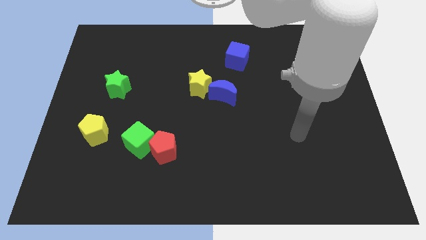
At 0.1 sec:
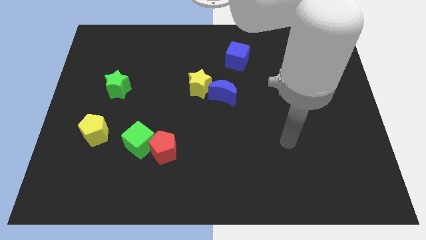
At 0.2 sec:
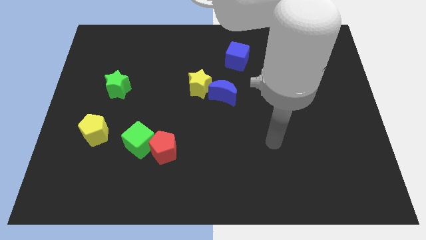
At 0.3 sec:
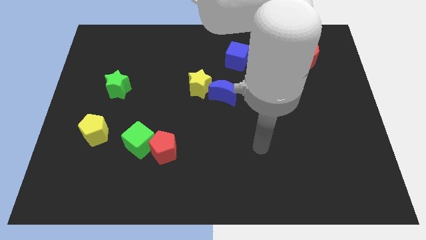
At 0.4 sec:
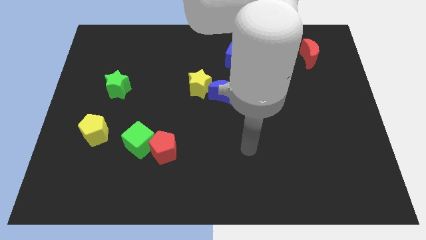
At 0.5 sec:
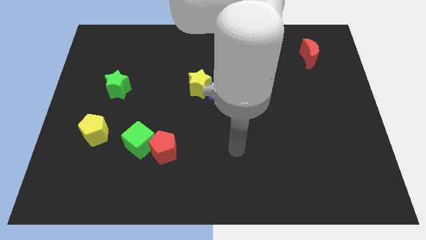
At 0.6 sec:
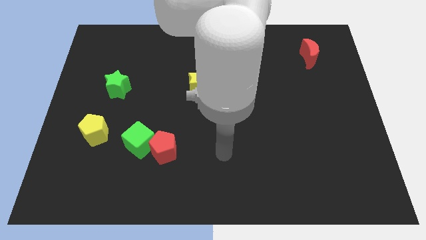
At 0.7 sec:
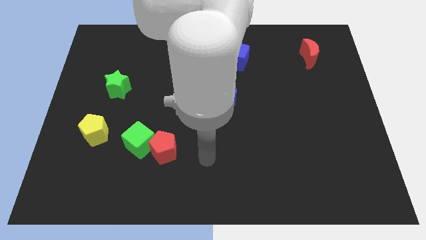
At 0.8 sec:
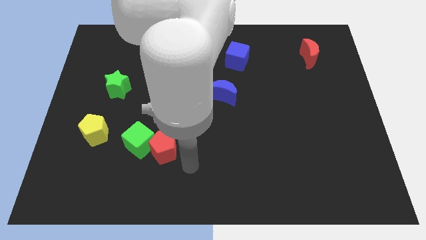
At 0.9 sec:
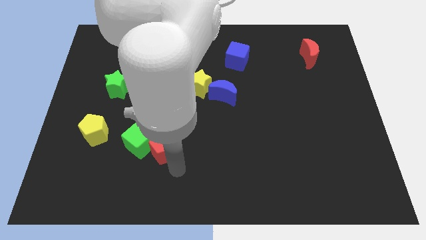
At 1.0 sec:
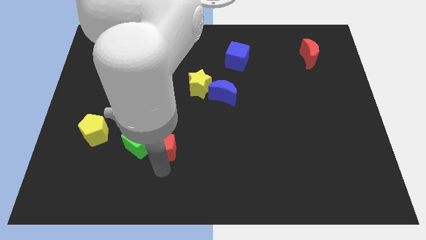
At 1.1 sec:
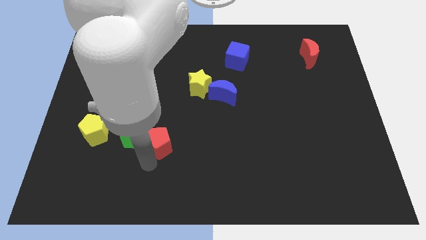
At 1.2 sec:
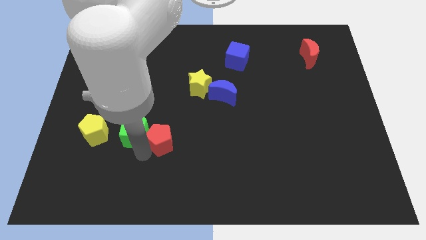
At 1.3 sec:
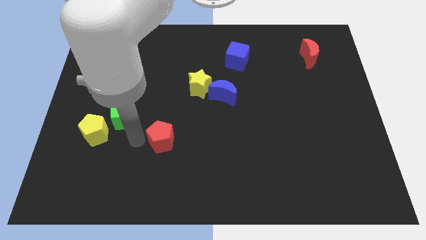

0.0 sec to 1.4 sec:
pull the red pentagon apart from the green cube

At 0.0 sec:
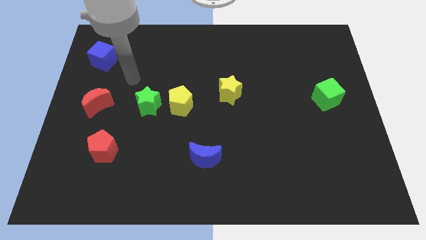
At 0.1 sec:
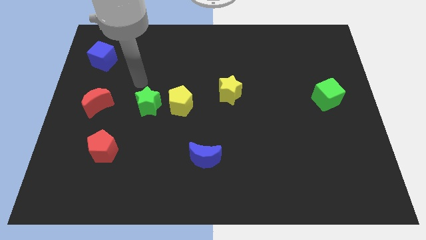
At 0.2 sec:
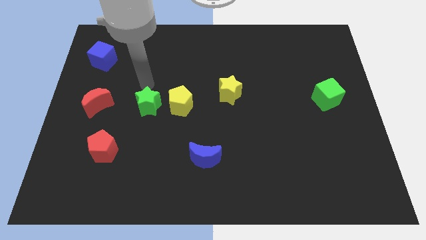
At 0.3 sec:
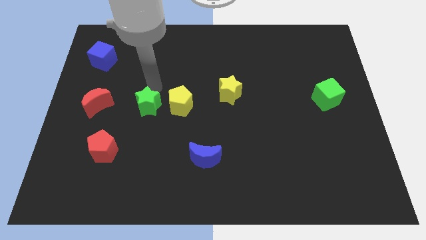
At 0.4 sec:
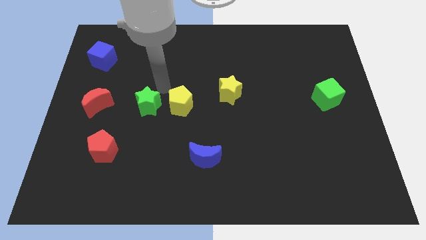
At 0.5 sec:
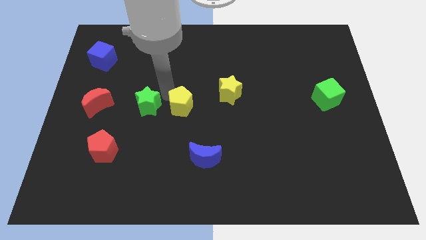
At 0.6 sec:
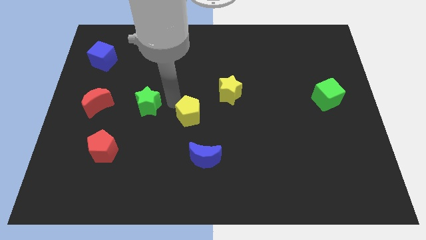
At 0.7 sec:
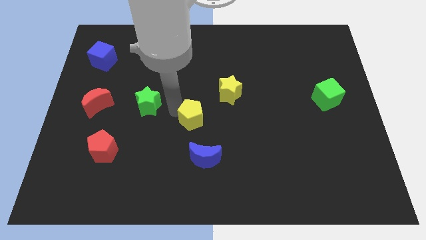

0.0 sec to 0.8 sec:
pull the green star apart from the yellow pentagon

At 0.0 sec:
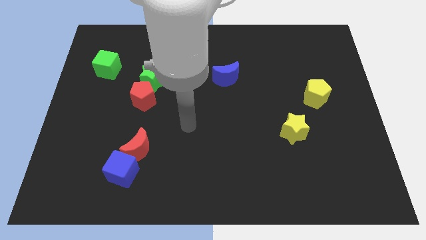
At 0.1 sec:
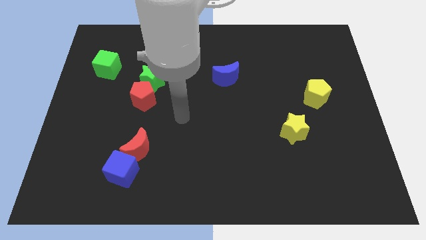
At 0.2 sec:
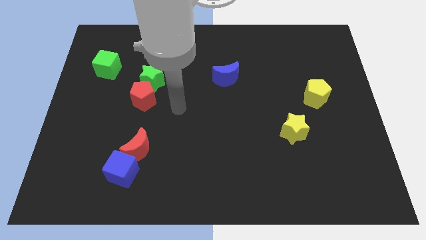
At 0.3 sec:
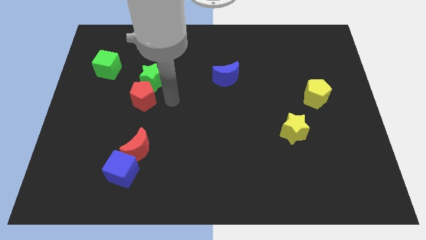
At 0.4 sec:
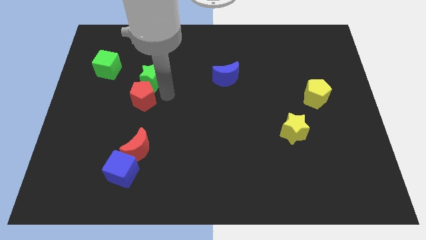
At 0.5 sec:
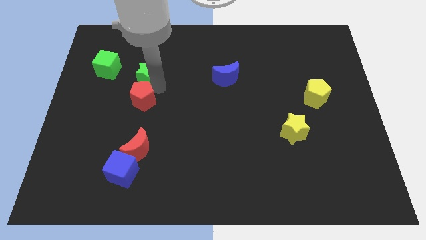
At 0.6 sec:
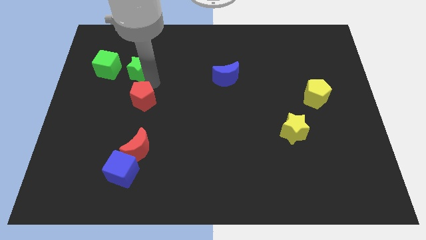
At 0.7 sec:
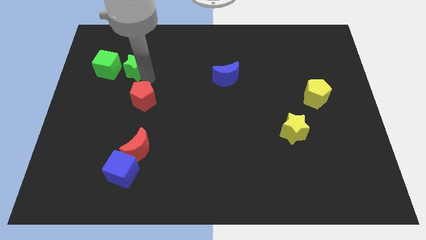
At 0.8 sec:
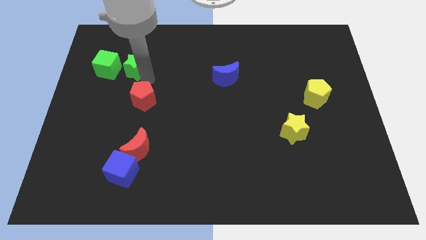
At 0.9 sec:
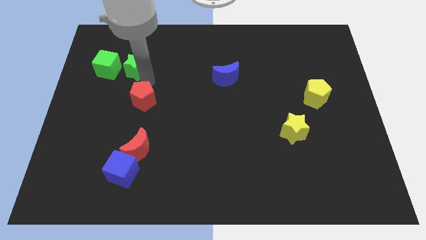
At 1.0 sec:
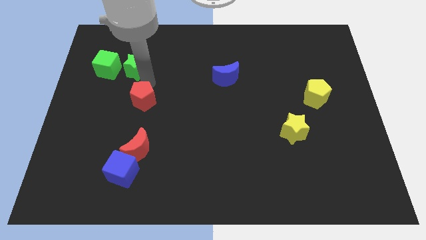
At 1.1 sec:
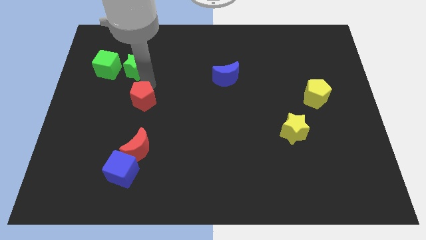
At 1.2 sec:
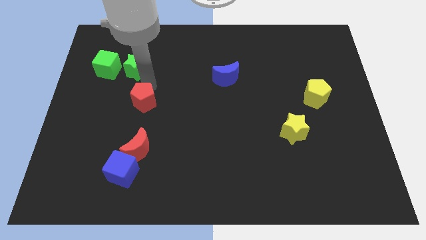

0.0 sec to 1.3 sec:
pull the red pentagon apart from the green star

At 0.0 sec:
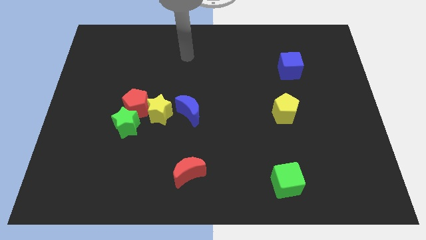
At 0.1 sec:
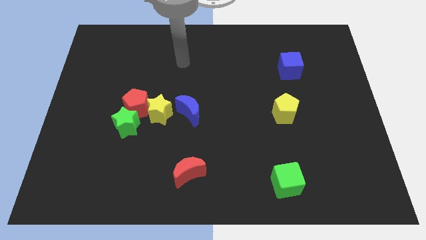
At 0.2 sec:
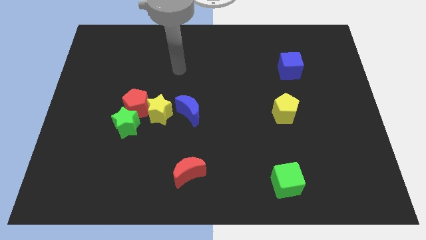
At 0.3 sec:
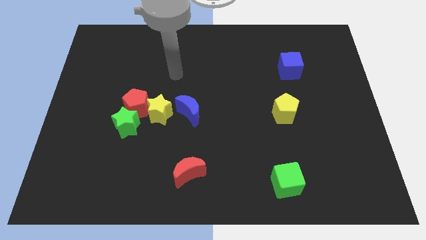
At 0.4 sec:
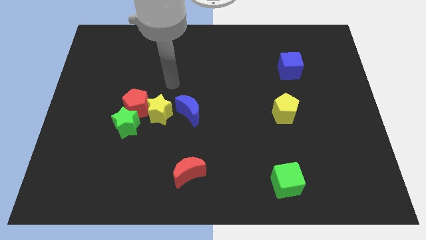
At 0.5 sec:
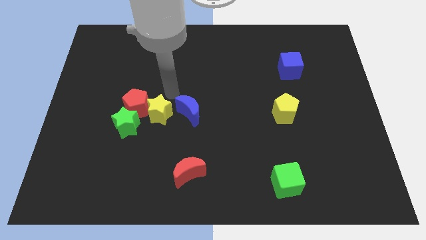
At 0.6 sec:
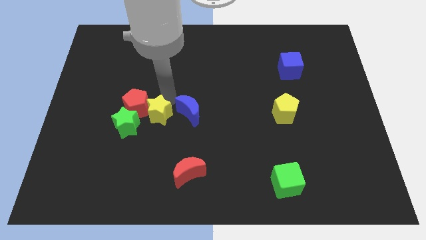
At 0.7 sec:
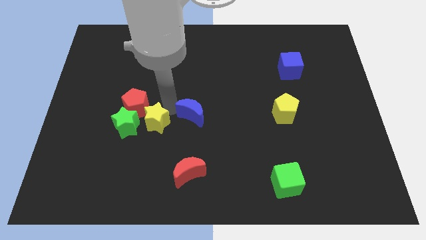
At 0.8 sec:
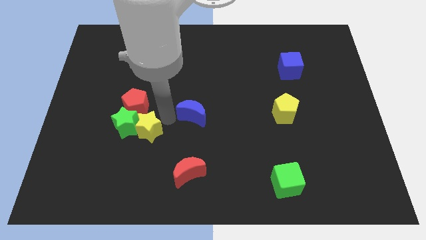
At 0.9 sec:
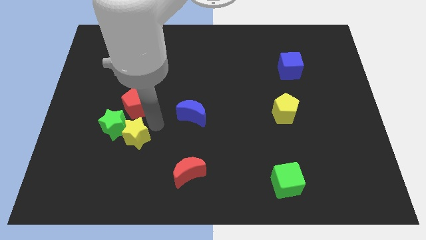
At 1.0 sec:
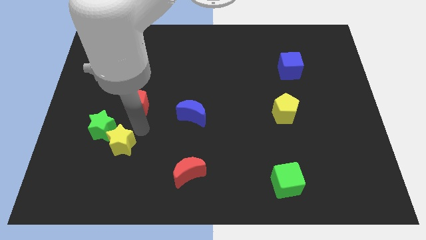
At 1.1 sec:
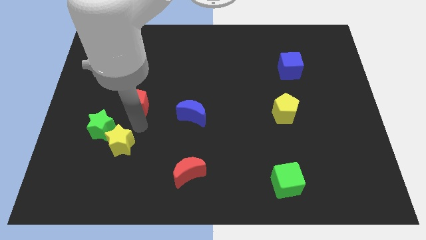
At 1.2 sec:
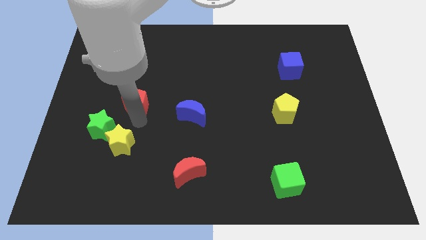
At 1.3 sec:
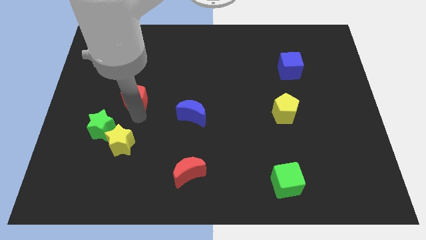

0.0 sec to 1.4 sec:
separate the red pentagon from the yellow star and green star

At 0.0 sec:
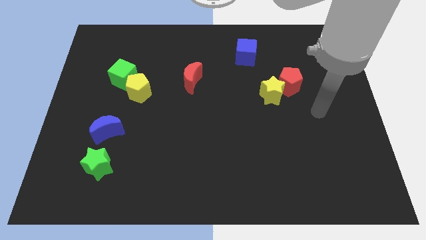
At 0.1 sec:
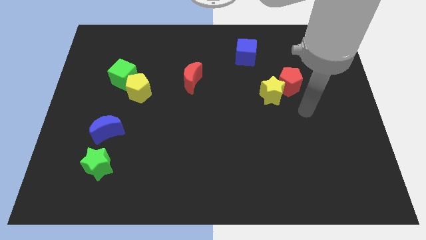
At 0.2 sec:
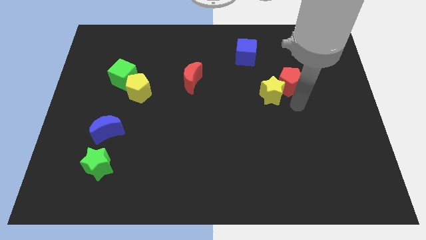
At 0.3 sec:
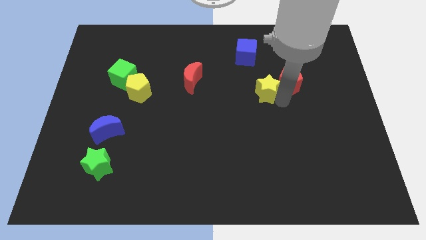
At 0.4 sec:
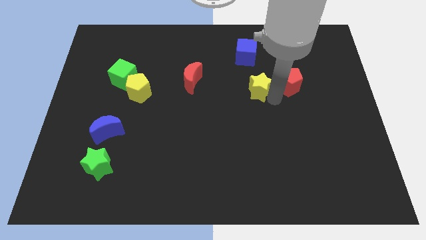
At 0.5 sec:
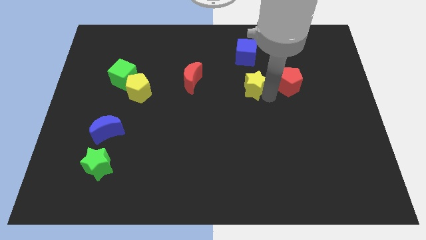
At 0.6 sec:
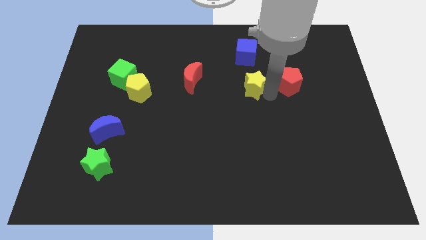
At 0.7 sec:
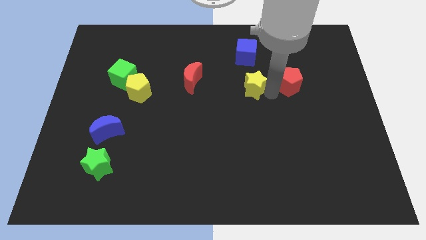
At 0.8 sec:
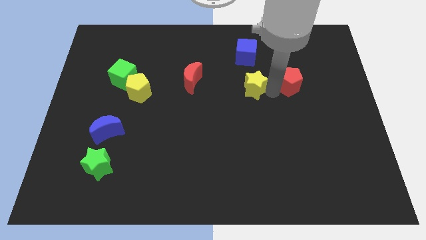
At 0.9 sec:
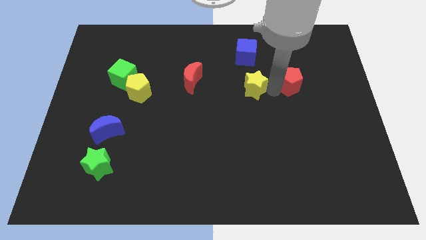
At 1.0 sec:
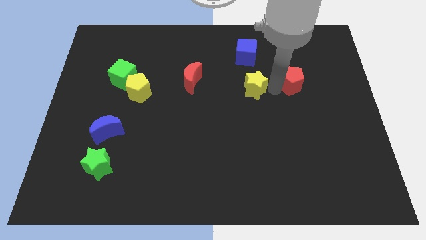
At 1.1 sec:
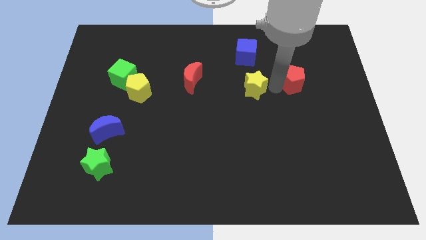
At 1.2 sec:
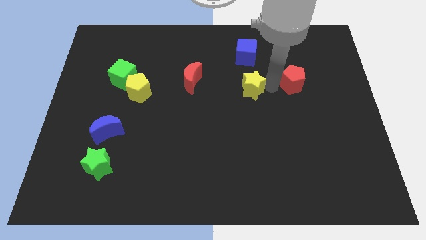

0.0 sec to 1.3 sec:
move the red pentagon away from the yellow star

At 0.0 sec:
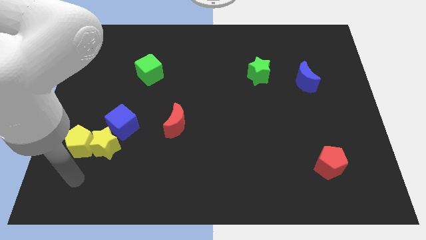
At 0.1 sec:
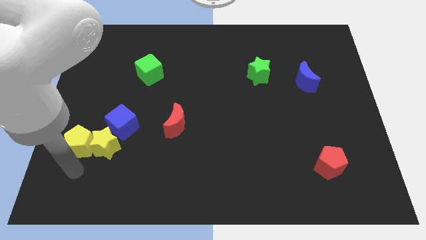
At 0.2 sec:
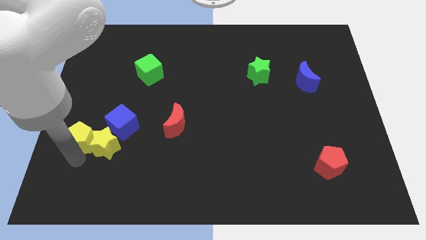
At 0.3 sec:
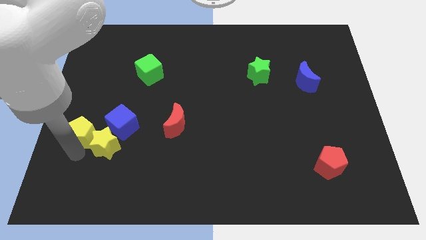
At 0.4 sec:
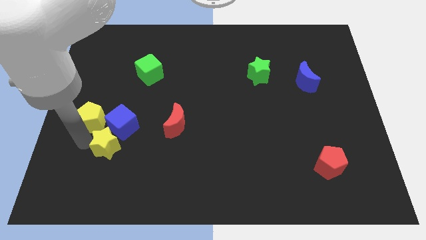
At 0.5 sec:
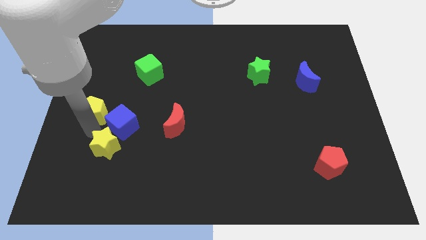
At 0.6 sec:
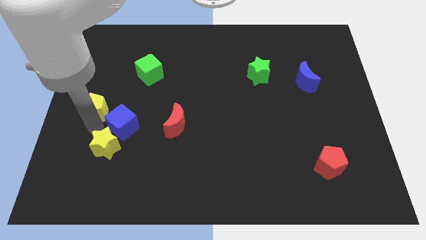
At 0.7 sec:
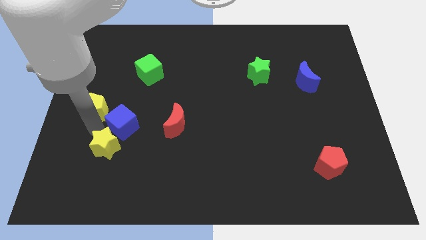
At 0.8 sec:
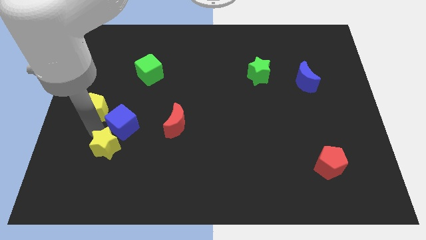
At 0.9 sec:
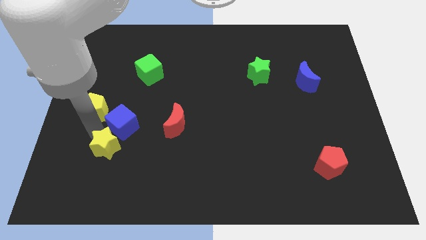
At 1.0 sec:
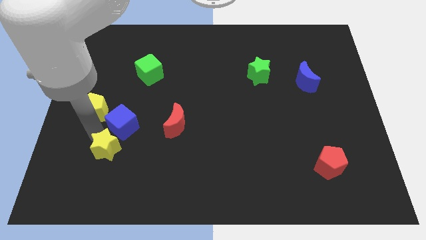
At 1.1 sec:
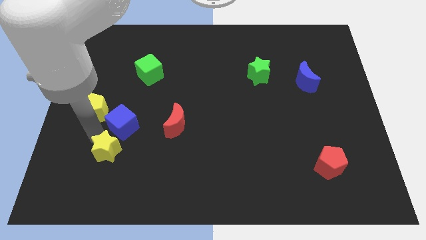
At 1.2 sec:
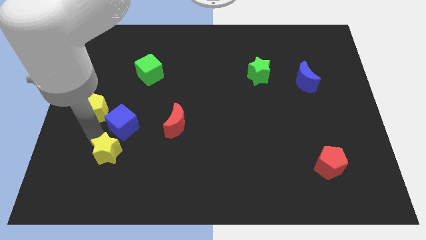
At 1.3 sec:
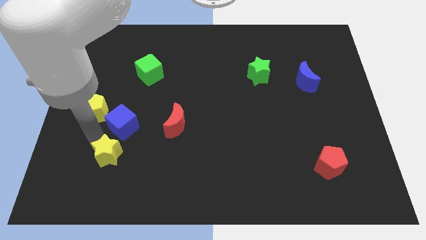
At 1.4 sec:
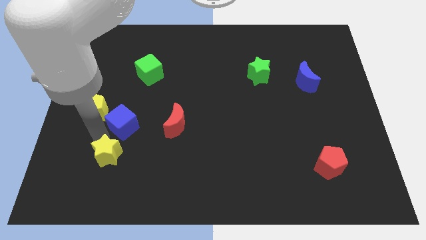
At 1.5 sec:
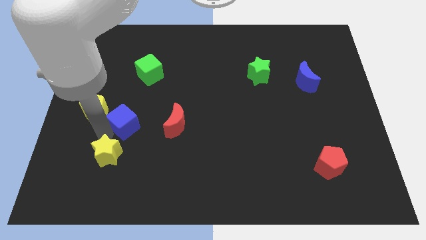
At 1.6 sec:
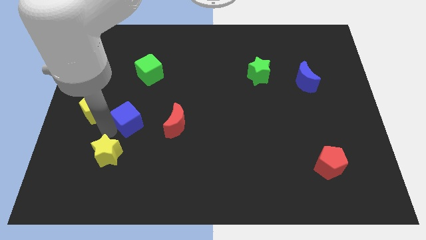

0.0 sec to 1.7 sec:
pull the yellow star apart from the yellow pentagon and blue cube

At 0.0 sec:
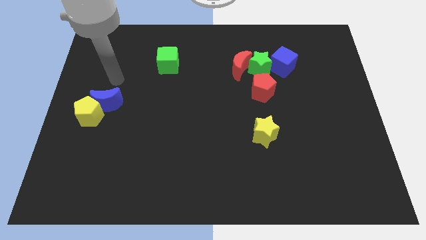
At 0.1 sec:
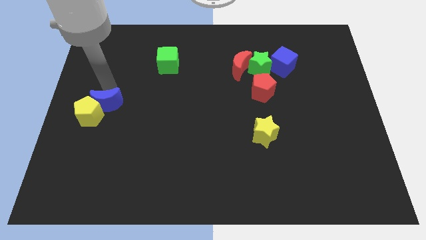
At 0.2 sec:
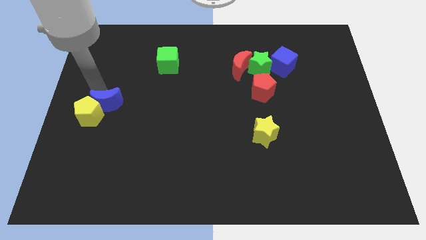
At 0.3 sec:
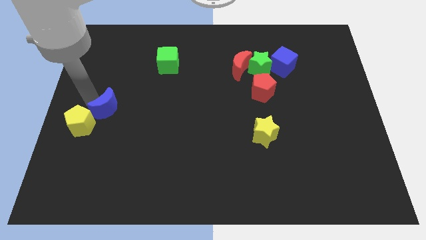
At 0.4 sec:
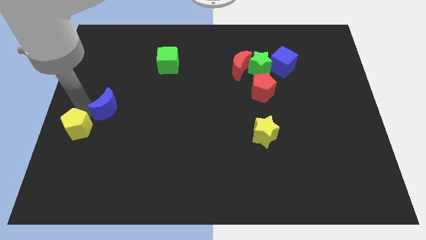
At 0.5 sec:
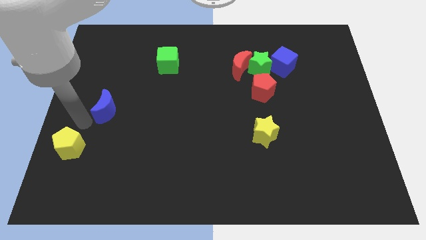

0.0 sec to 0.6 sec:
pull the blue moon apart from the yellow pentagon

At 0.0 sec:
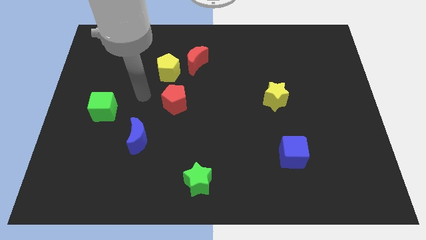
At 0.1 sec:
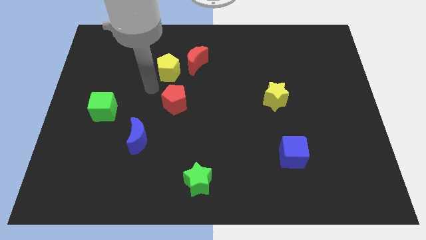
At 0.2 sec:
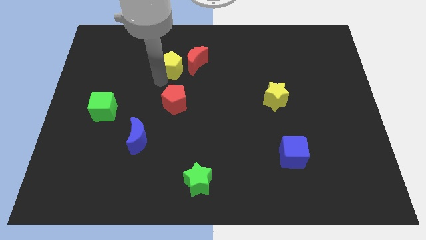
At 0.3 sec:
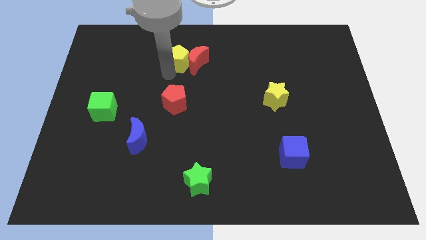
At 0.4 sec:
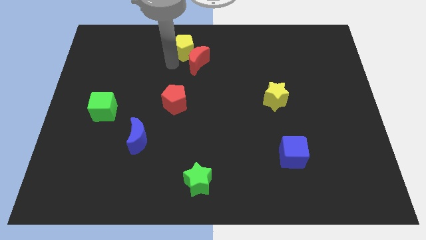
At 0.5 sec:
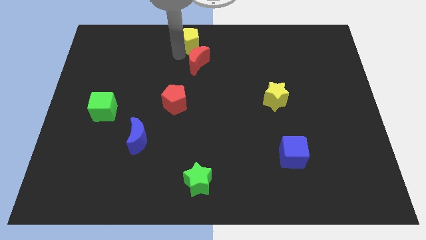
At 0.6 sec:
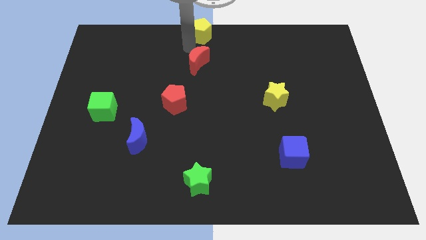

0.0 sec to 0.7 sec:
pull the red moon apart from the yellow pentagon
